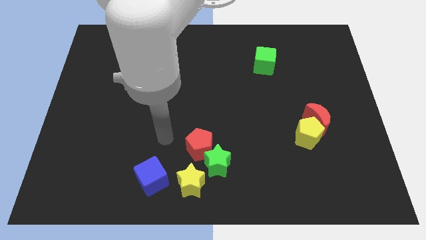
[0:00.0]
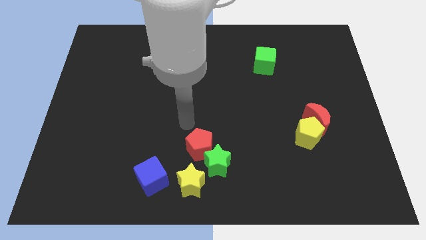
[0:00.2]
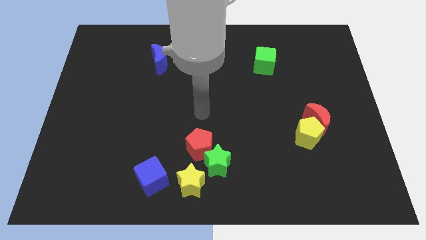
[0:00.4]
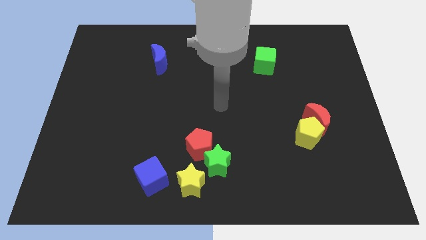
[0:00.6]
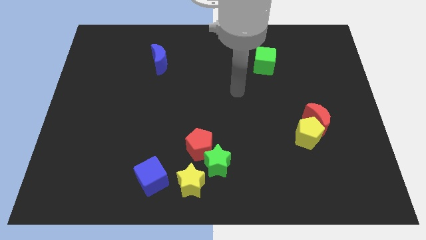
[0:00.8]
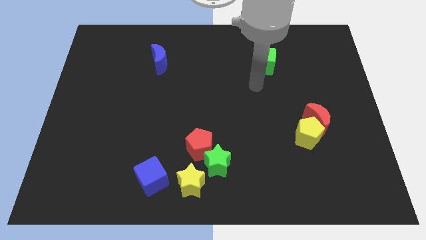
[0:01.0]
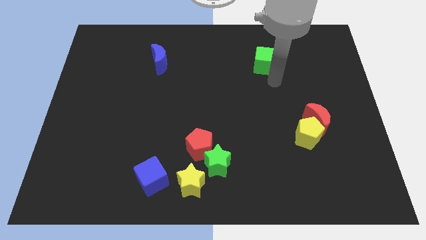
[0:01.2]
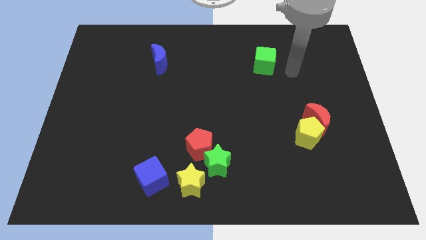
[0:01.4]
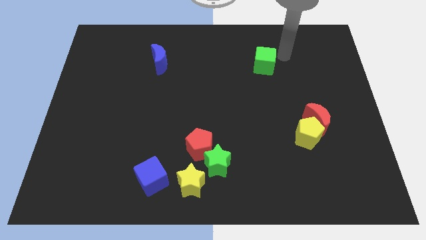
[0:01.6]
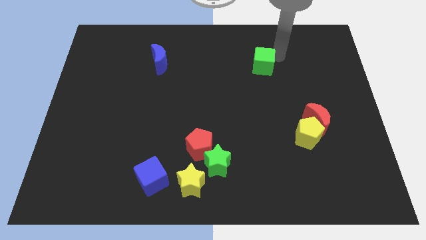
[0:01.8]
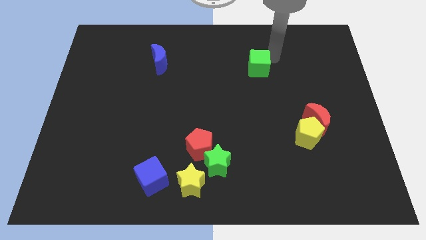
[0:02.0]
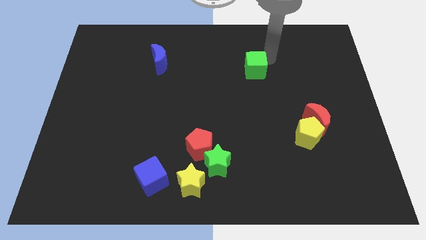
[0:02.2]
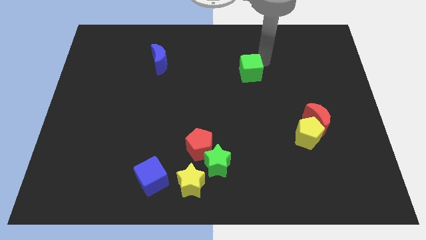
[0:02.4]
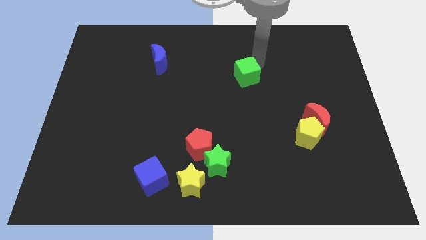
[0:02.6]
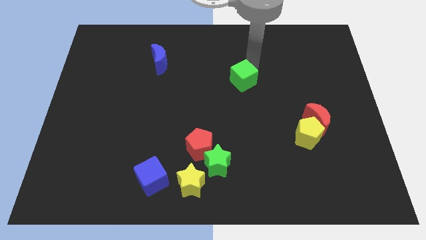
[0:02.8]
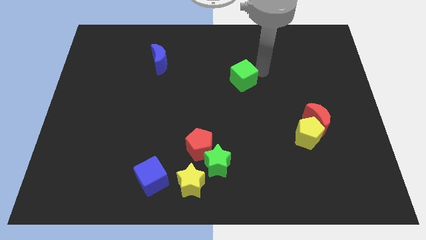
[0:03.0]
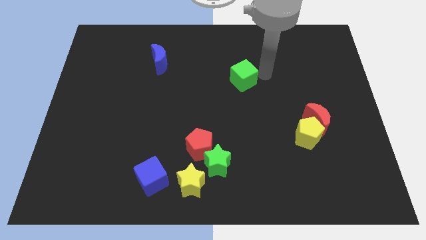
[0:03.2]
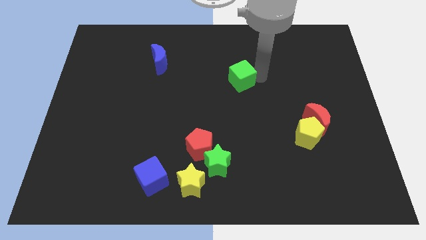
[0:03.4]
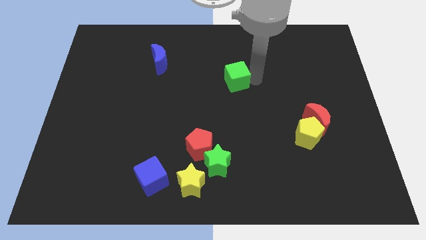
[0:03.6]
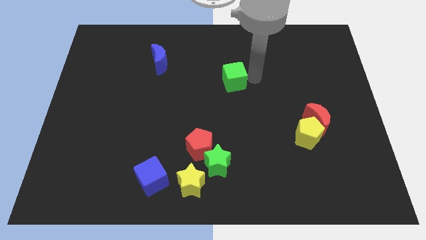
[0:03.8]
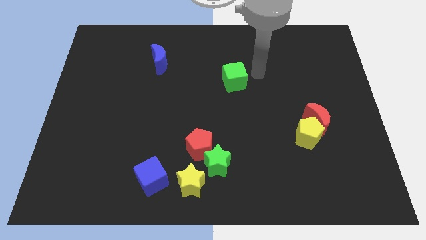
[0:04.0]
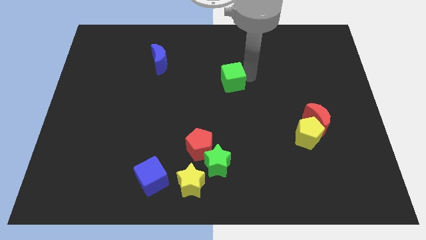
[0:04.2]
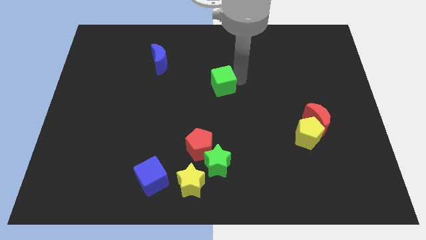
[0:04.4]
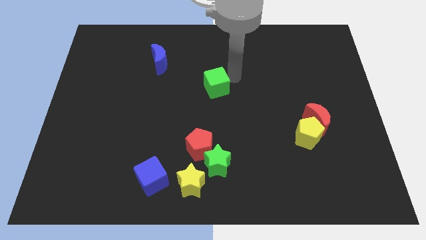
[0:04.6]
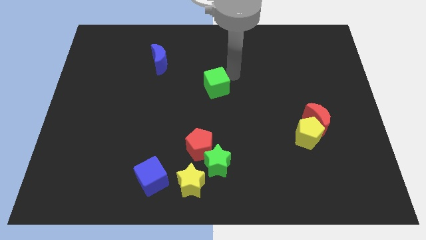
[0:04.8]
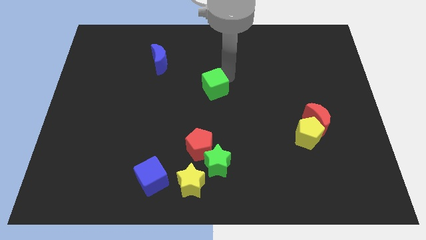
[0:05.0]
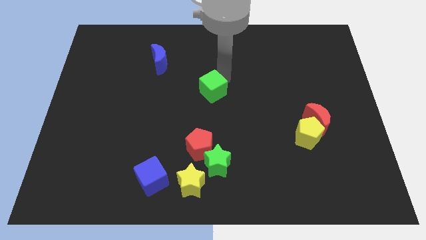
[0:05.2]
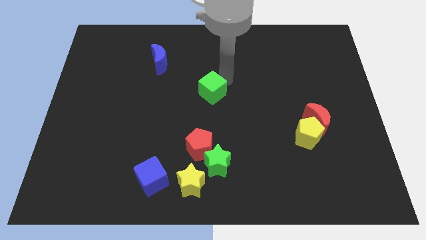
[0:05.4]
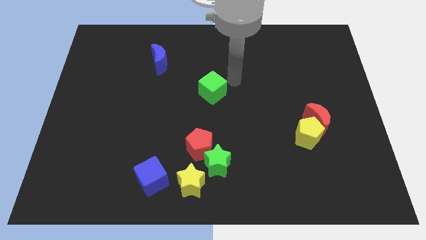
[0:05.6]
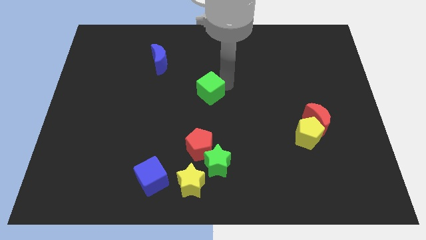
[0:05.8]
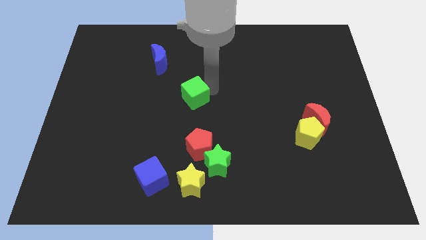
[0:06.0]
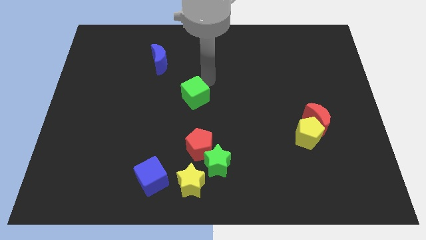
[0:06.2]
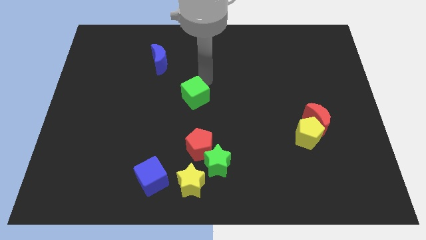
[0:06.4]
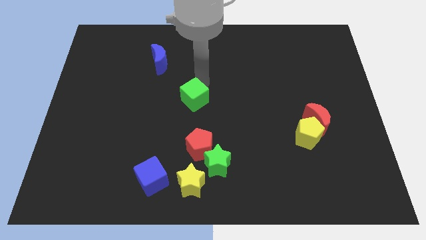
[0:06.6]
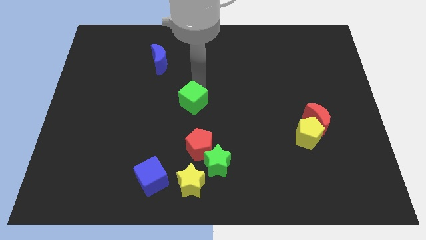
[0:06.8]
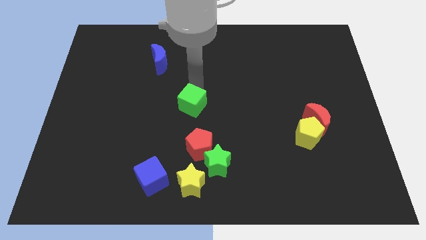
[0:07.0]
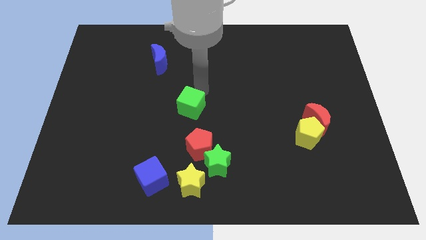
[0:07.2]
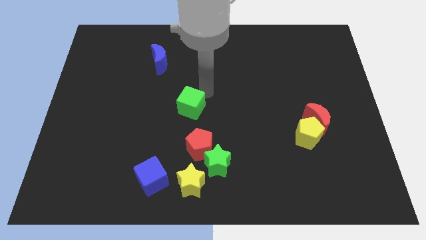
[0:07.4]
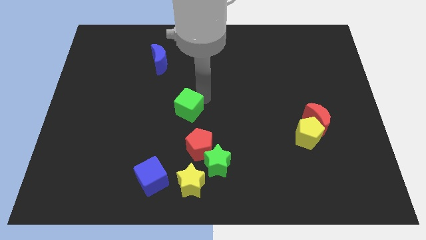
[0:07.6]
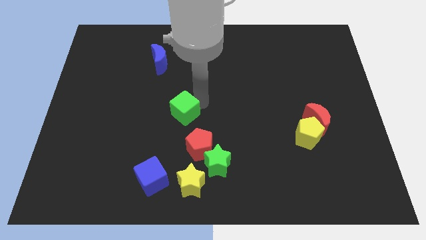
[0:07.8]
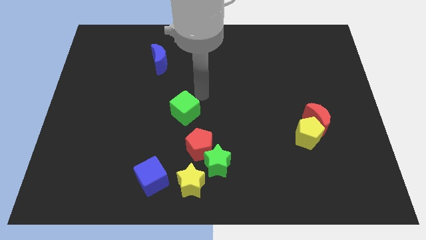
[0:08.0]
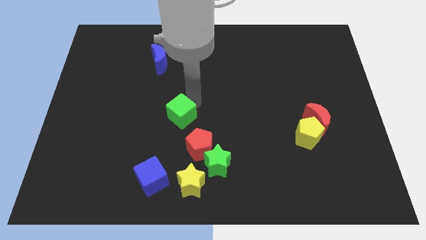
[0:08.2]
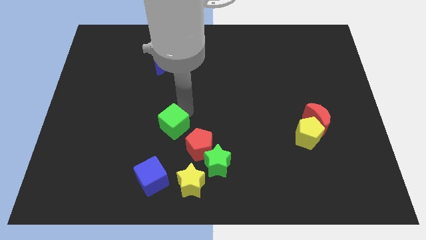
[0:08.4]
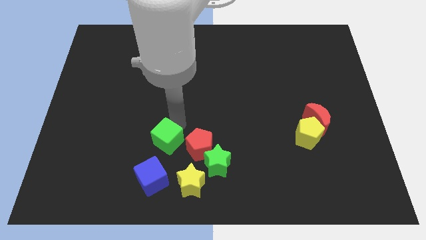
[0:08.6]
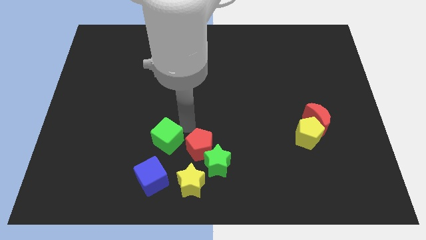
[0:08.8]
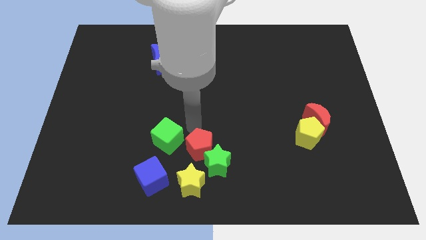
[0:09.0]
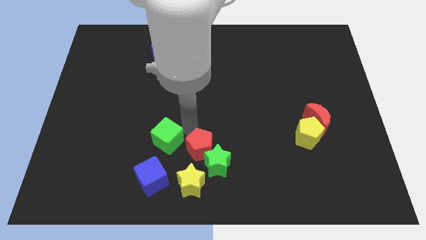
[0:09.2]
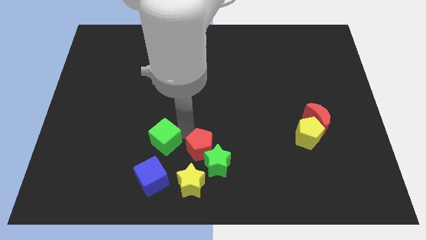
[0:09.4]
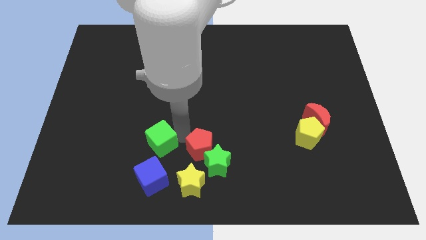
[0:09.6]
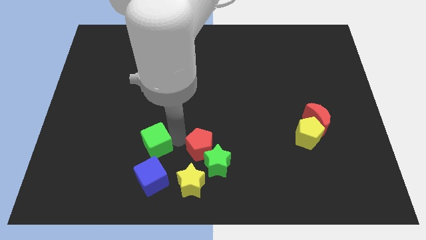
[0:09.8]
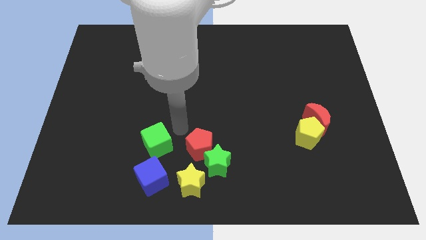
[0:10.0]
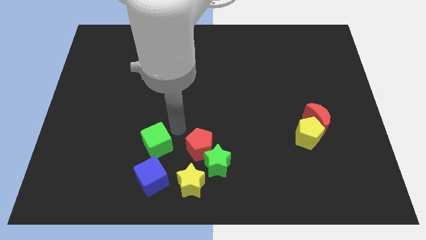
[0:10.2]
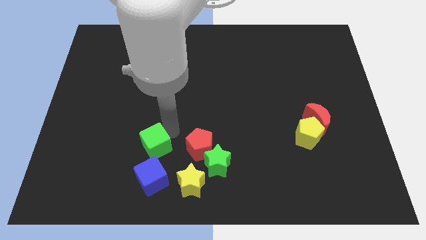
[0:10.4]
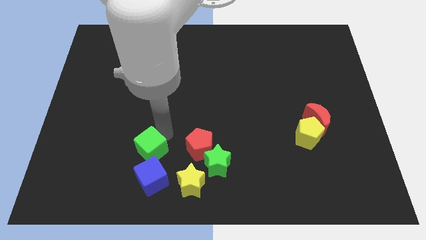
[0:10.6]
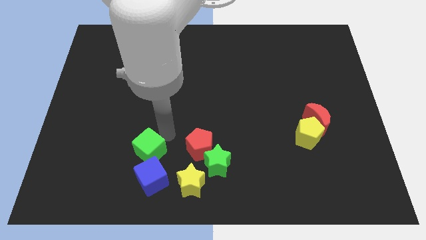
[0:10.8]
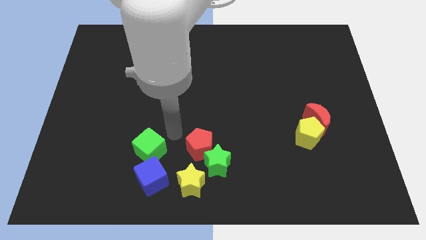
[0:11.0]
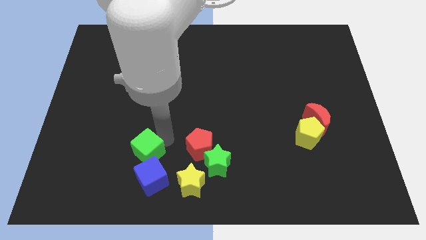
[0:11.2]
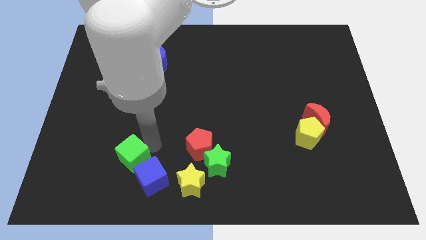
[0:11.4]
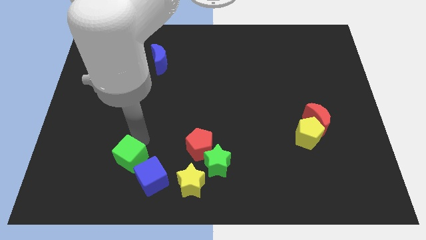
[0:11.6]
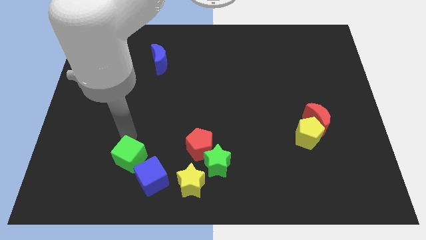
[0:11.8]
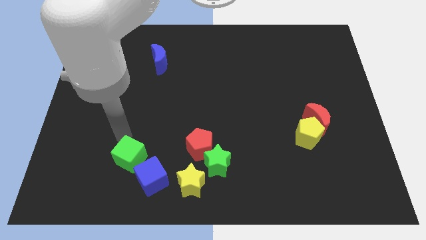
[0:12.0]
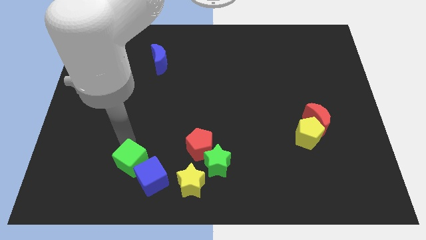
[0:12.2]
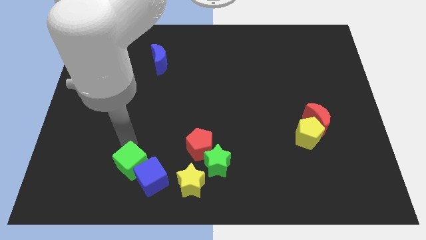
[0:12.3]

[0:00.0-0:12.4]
push the green cube just left of the yellow star

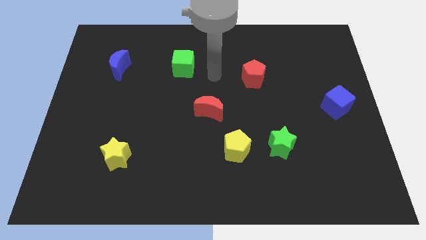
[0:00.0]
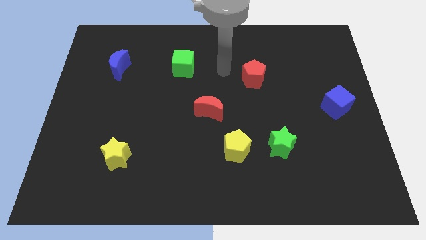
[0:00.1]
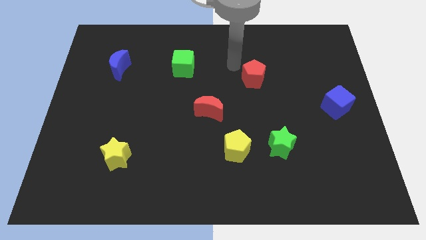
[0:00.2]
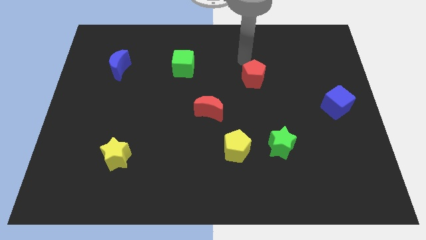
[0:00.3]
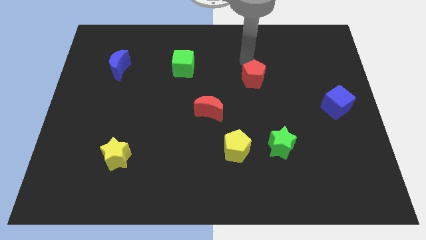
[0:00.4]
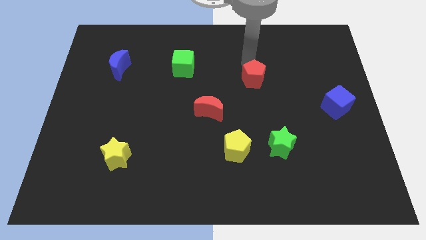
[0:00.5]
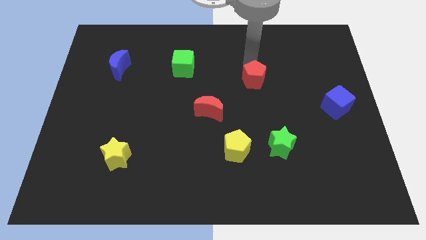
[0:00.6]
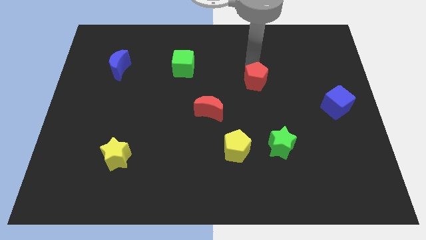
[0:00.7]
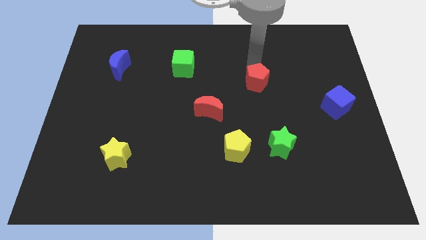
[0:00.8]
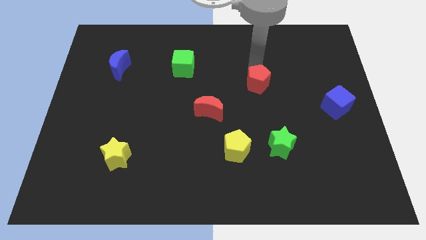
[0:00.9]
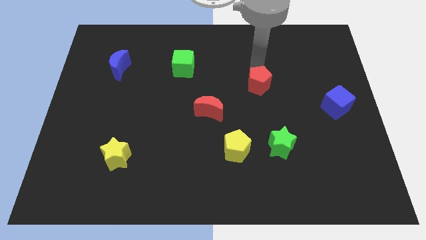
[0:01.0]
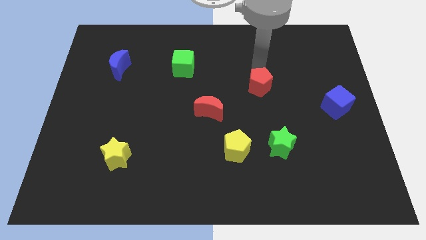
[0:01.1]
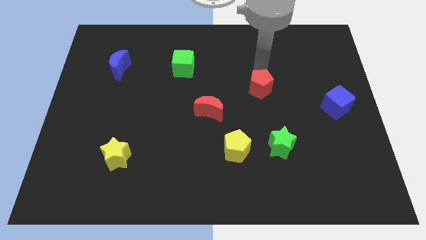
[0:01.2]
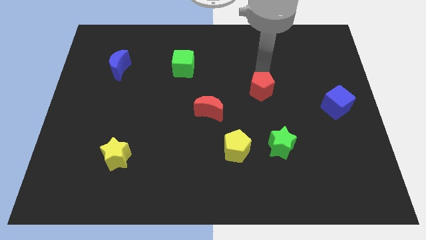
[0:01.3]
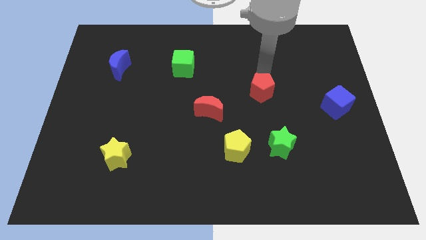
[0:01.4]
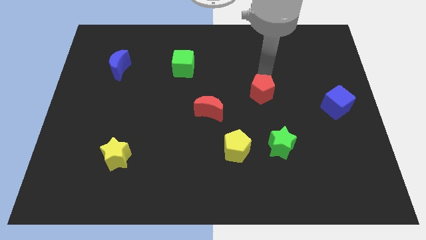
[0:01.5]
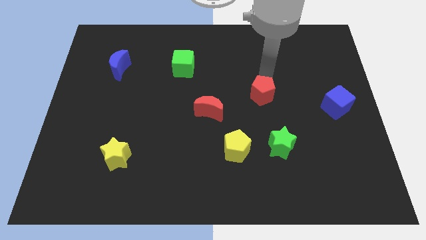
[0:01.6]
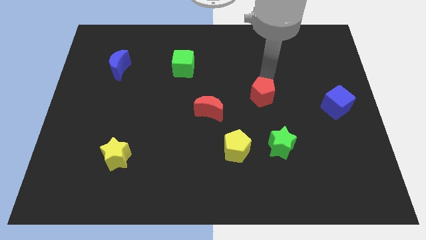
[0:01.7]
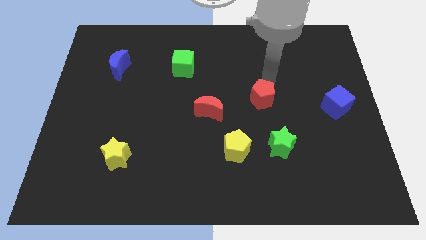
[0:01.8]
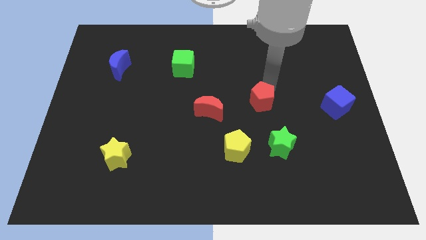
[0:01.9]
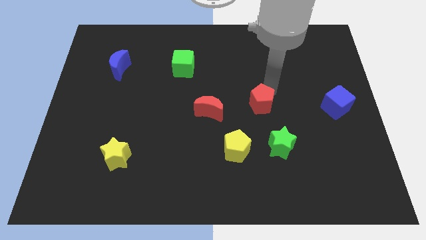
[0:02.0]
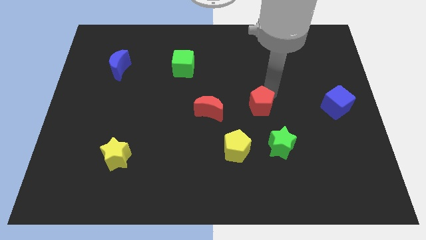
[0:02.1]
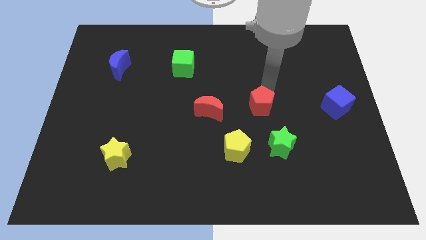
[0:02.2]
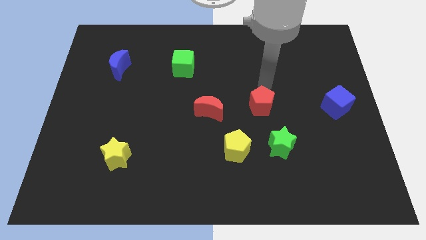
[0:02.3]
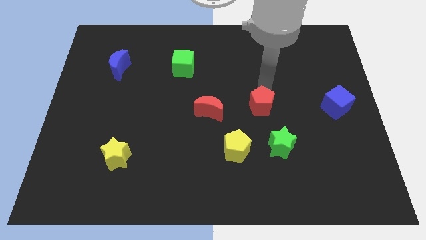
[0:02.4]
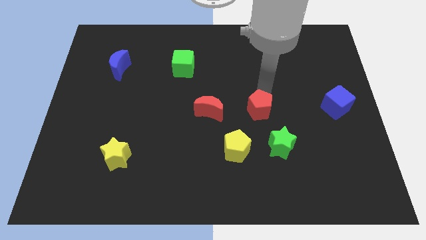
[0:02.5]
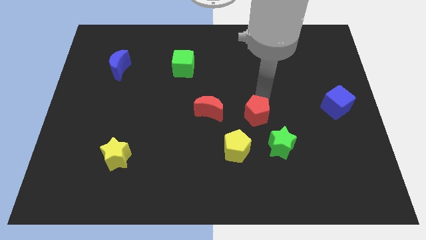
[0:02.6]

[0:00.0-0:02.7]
slide the red pentagon to the top right side of the yellow pentagon
